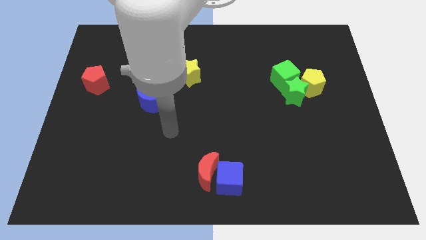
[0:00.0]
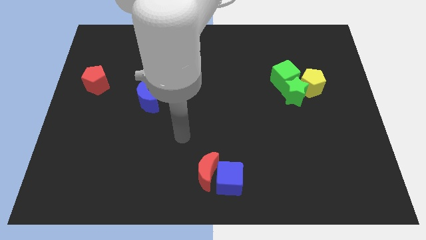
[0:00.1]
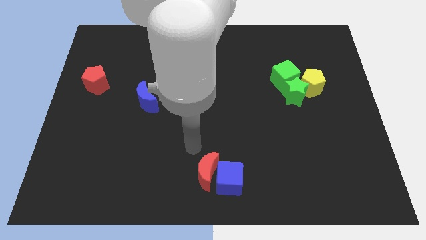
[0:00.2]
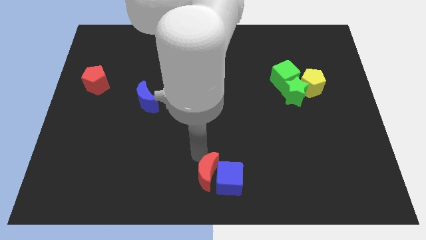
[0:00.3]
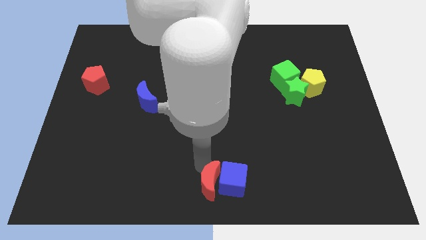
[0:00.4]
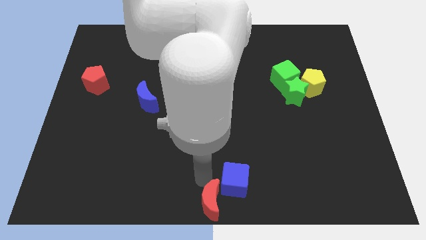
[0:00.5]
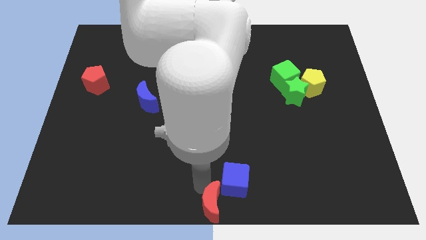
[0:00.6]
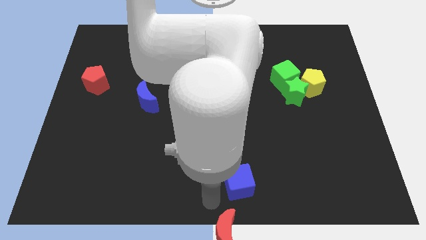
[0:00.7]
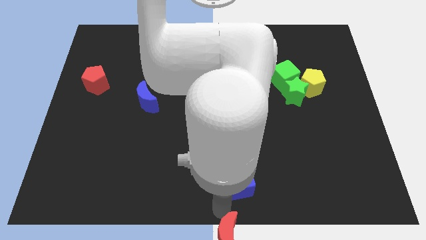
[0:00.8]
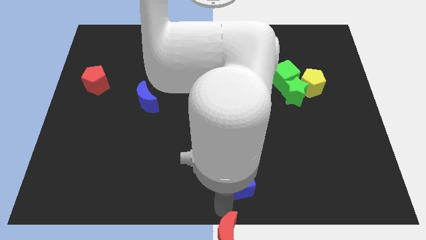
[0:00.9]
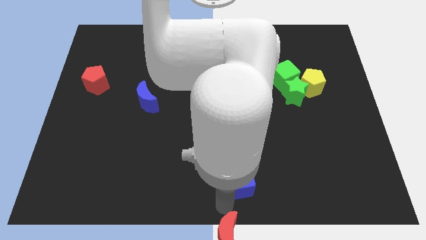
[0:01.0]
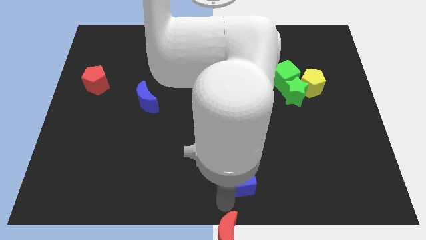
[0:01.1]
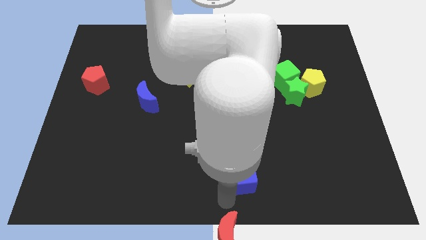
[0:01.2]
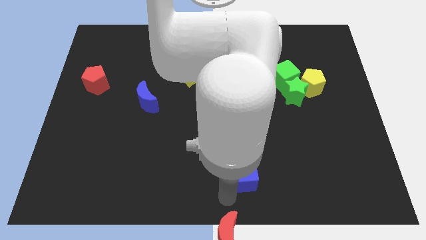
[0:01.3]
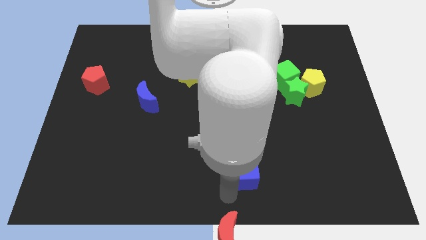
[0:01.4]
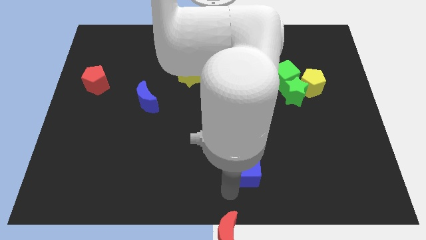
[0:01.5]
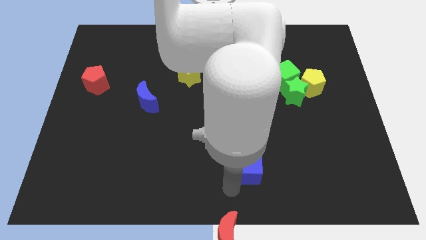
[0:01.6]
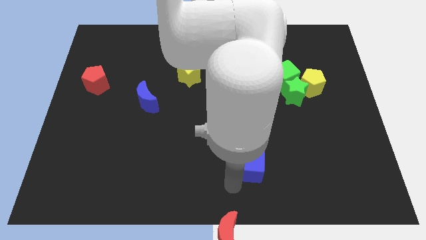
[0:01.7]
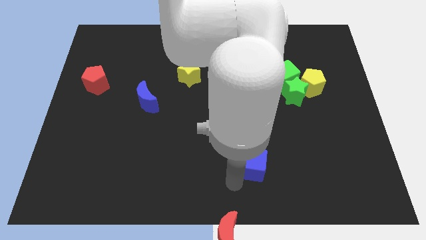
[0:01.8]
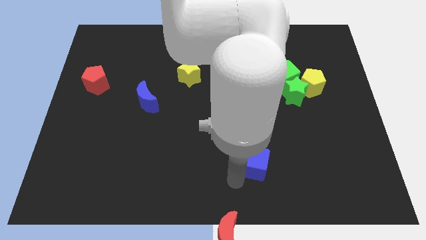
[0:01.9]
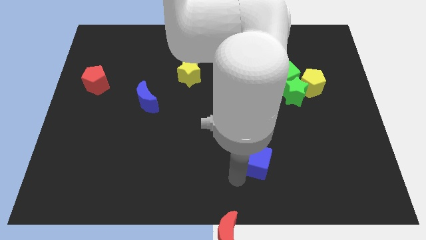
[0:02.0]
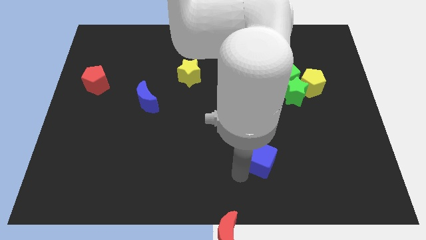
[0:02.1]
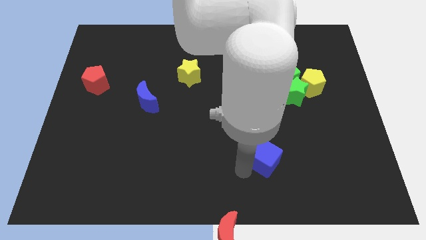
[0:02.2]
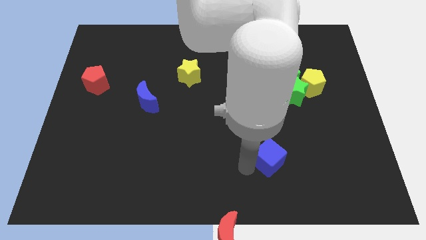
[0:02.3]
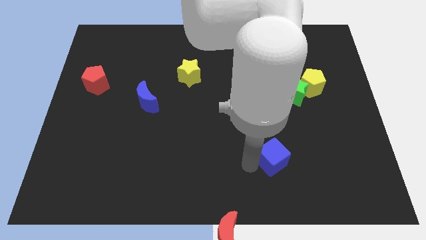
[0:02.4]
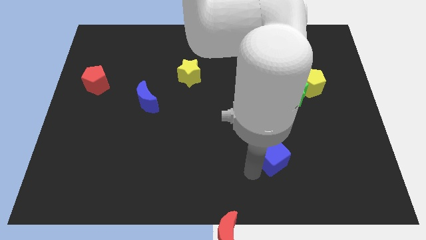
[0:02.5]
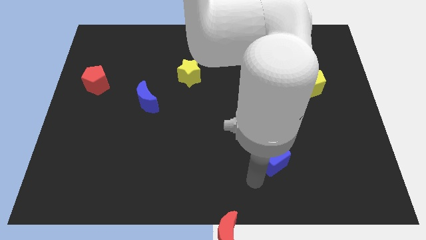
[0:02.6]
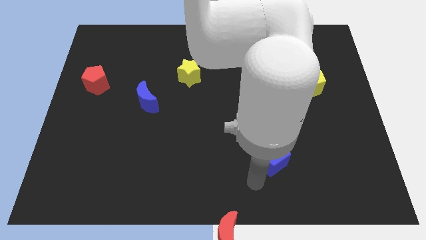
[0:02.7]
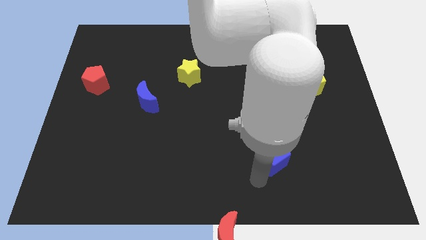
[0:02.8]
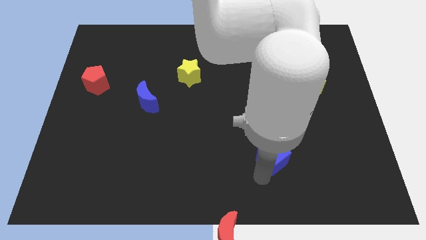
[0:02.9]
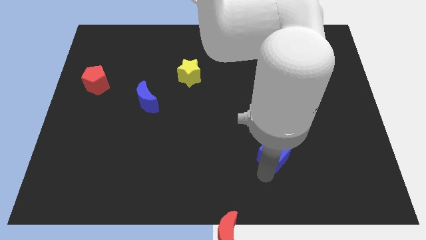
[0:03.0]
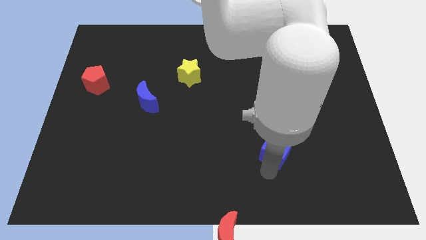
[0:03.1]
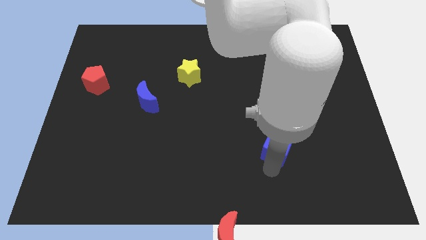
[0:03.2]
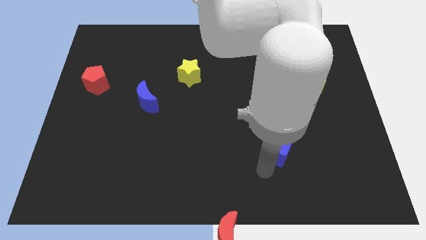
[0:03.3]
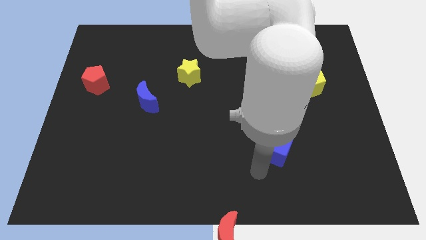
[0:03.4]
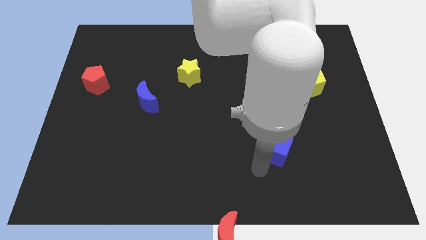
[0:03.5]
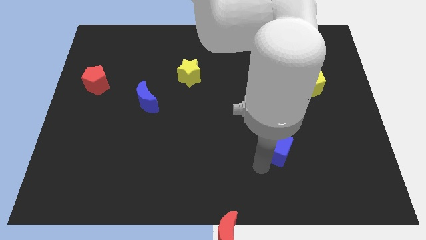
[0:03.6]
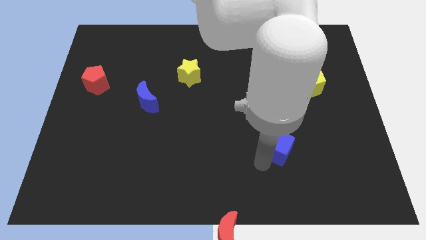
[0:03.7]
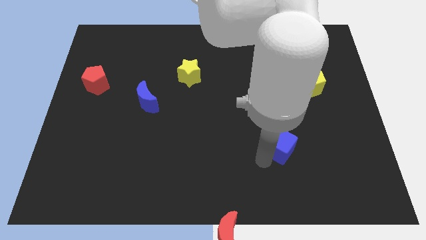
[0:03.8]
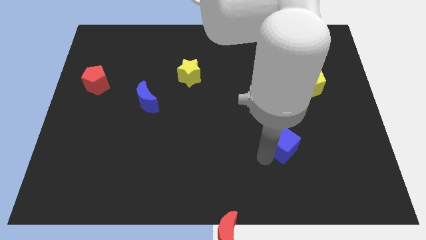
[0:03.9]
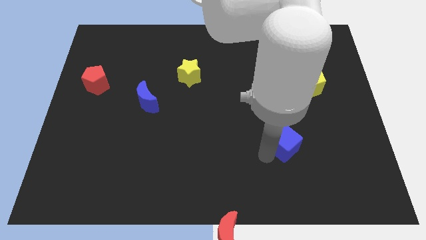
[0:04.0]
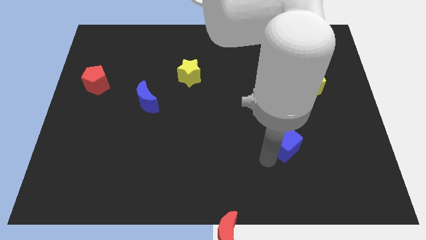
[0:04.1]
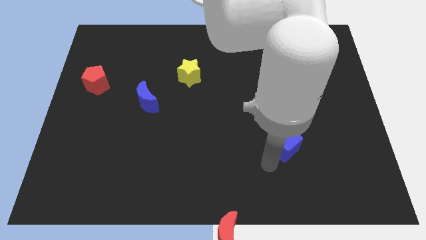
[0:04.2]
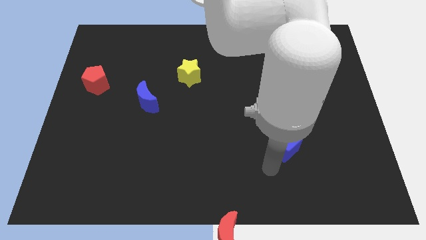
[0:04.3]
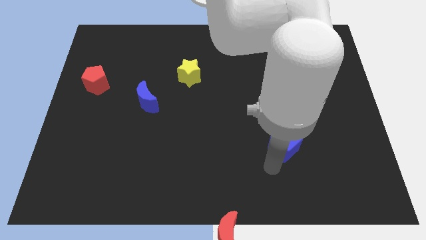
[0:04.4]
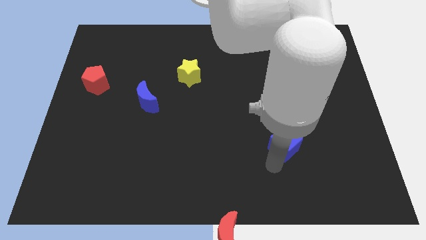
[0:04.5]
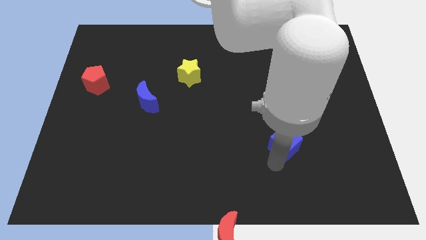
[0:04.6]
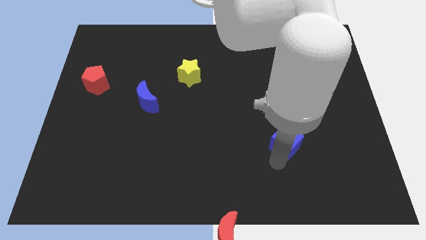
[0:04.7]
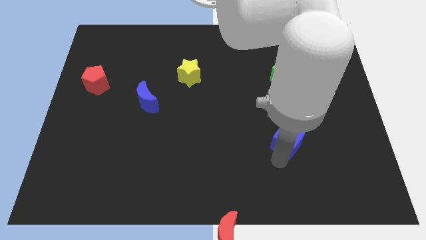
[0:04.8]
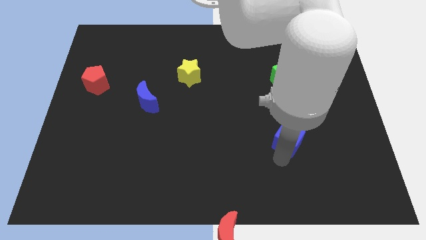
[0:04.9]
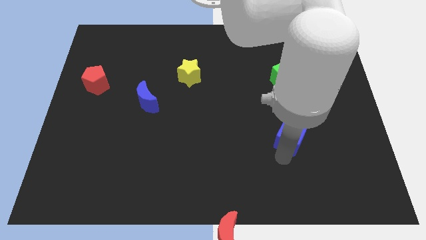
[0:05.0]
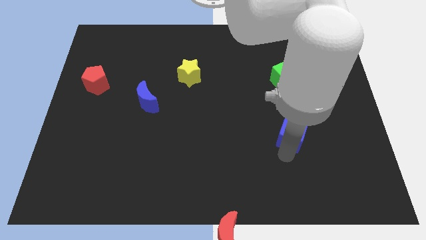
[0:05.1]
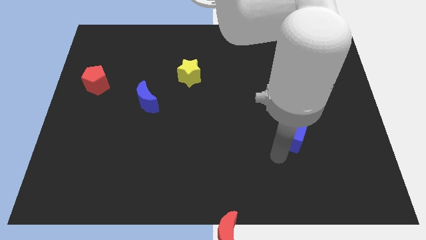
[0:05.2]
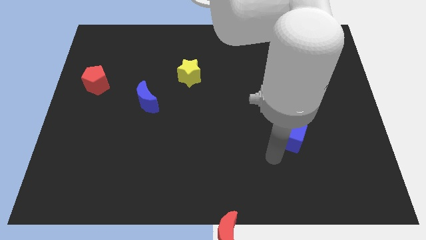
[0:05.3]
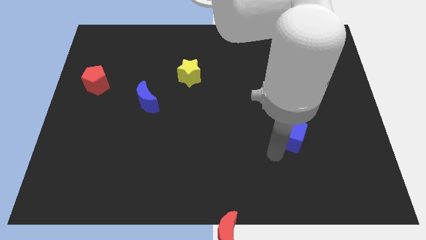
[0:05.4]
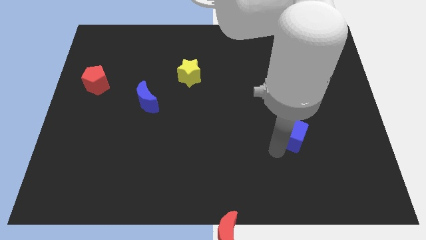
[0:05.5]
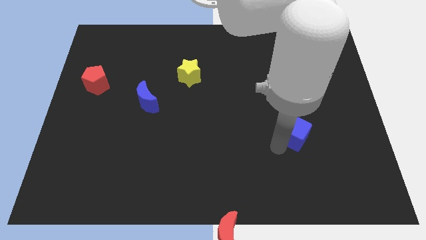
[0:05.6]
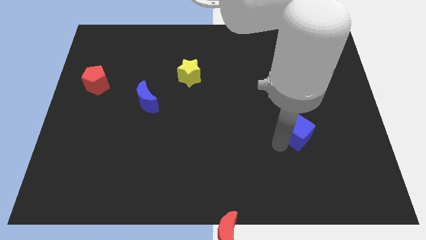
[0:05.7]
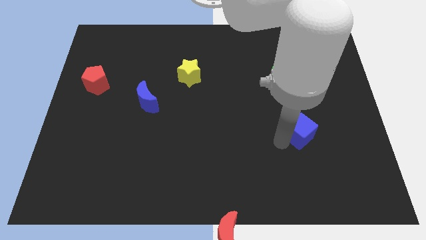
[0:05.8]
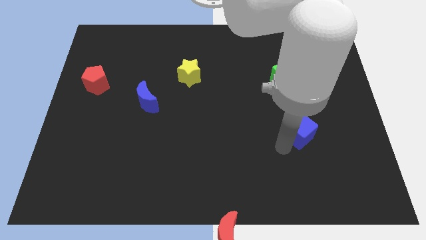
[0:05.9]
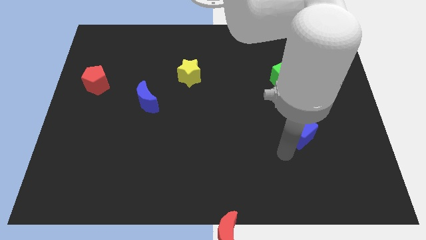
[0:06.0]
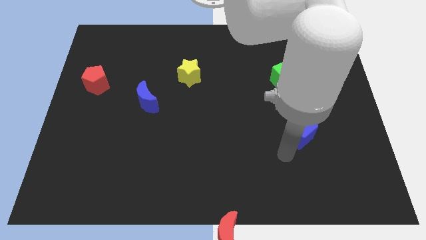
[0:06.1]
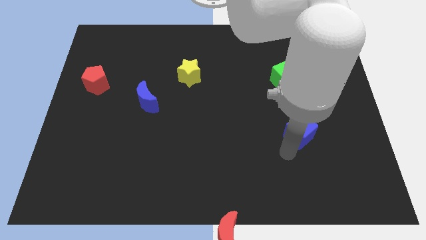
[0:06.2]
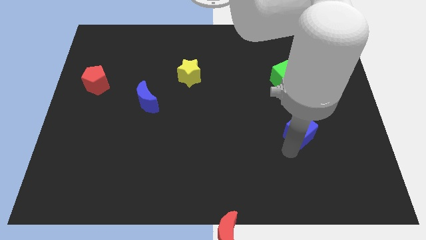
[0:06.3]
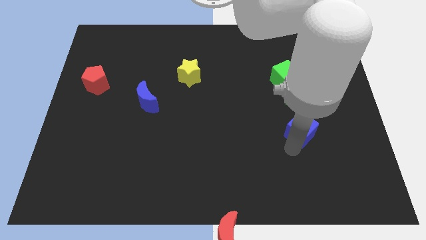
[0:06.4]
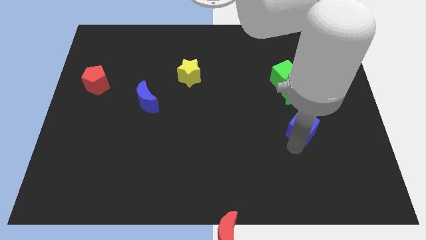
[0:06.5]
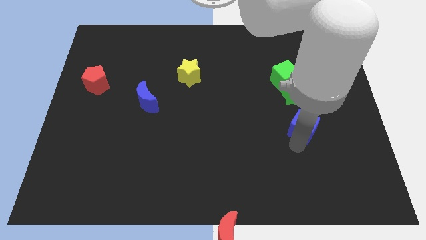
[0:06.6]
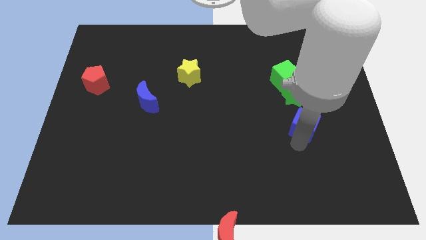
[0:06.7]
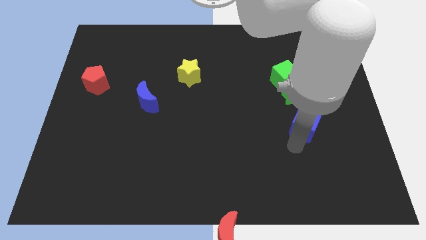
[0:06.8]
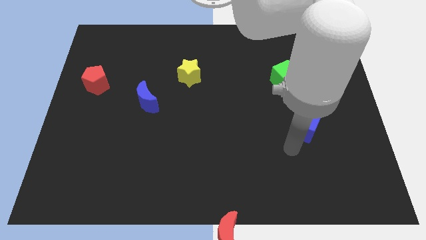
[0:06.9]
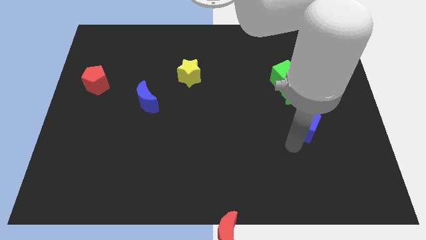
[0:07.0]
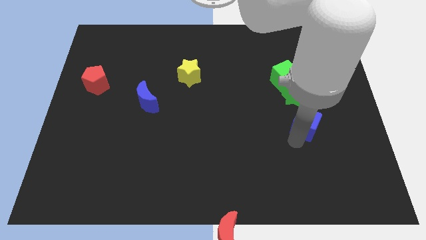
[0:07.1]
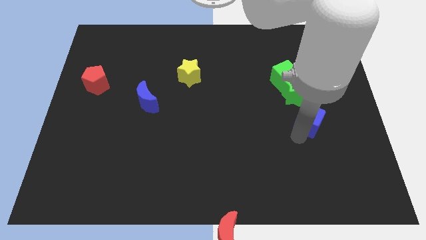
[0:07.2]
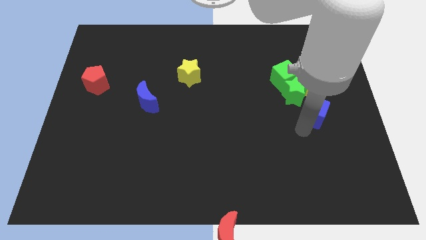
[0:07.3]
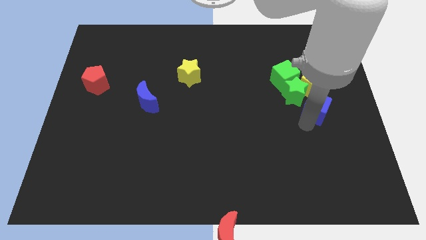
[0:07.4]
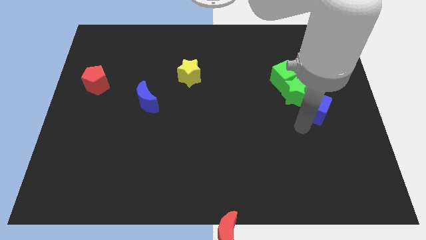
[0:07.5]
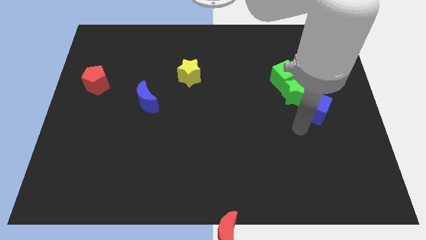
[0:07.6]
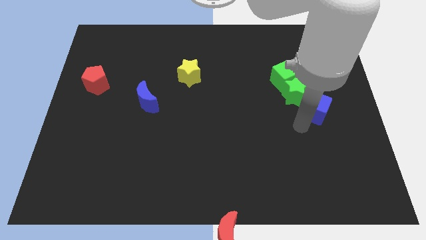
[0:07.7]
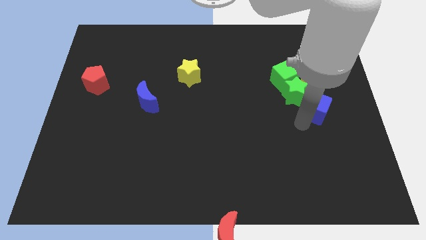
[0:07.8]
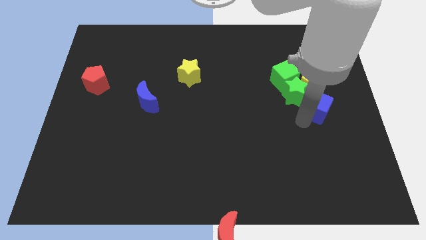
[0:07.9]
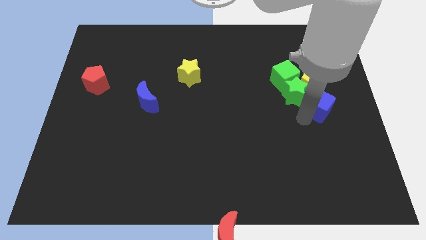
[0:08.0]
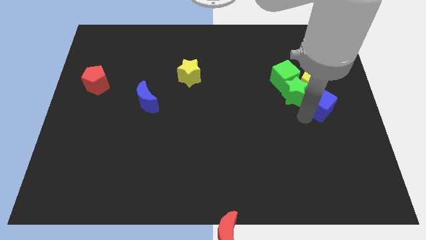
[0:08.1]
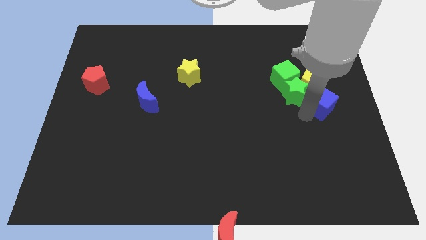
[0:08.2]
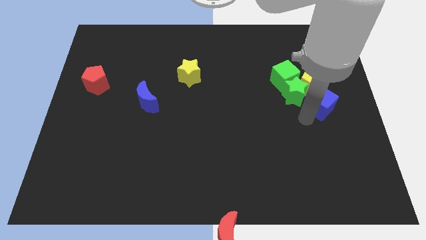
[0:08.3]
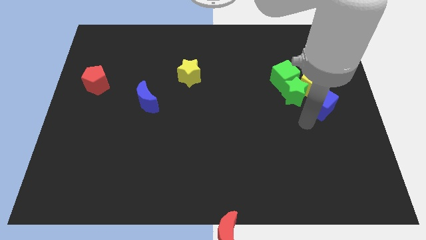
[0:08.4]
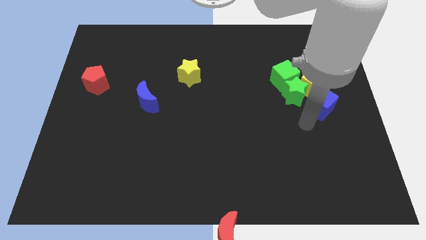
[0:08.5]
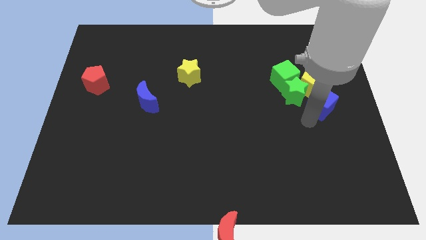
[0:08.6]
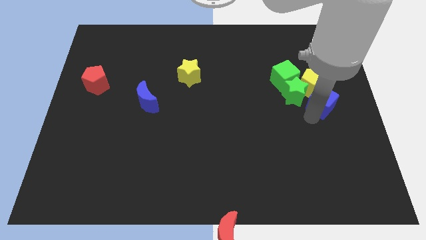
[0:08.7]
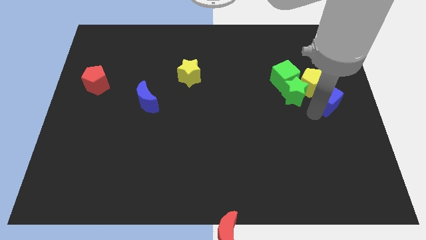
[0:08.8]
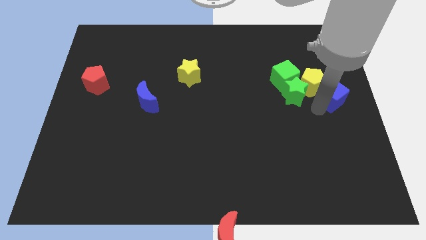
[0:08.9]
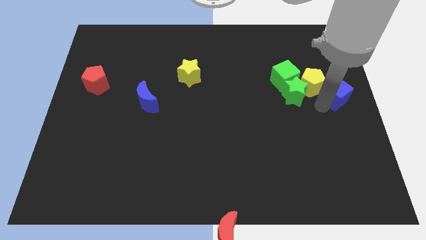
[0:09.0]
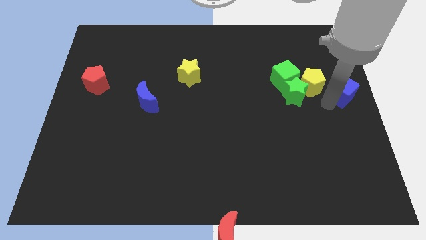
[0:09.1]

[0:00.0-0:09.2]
push the blue cube to the right side of the green cube
